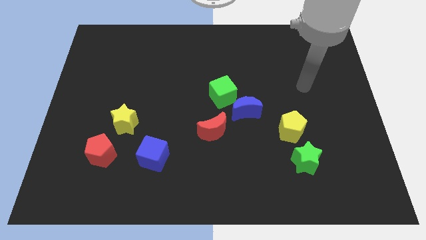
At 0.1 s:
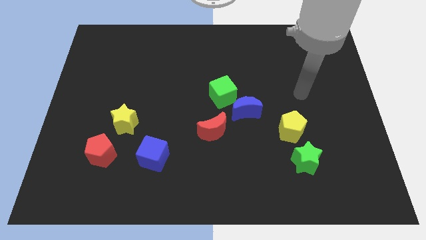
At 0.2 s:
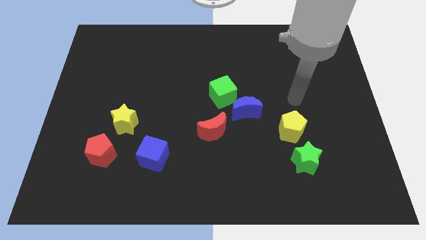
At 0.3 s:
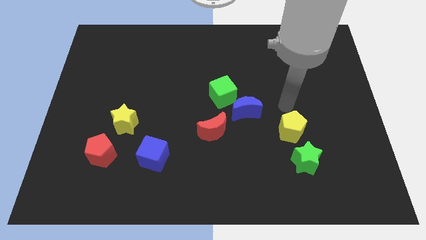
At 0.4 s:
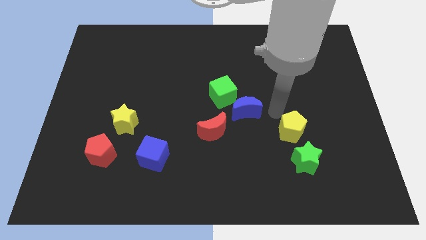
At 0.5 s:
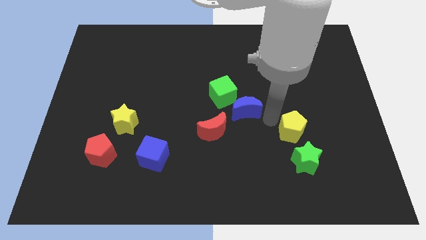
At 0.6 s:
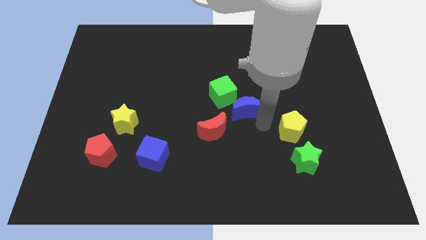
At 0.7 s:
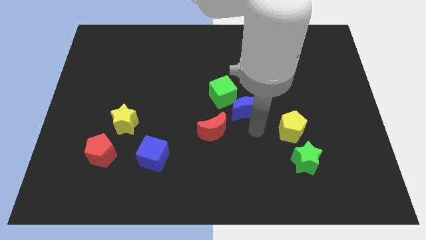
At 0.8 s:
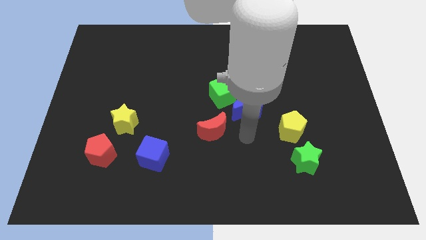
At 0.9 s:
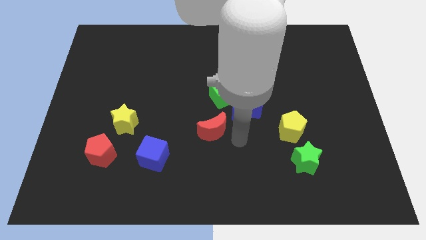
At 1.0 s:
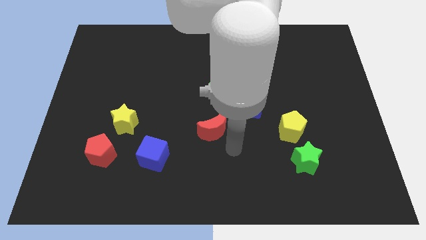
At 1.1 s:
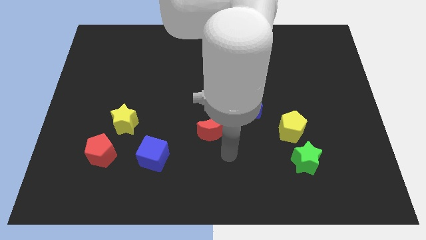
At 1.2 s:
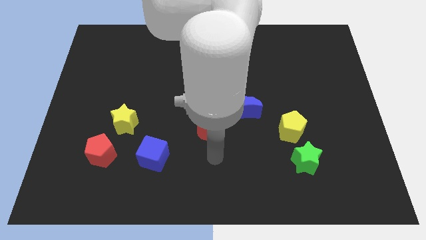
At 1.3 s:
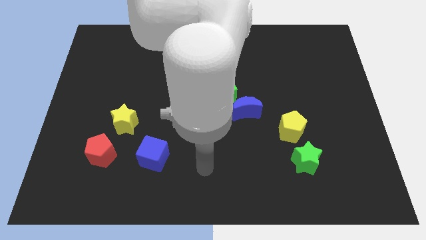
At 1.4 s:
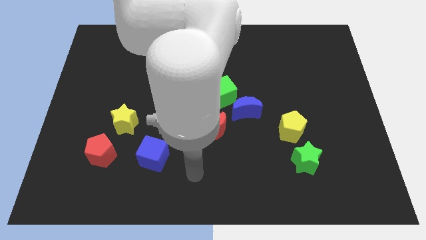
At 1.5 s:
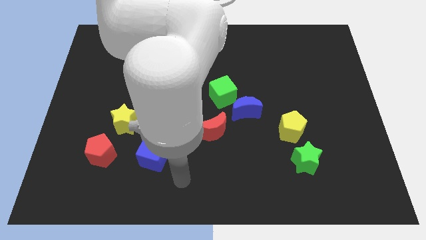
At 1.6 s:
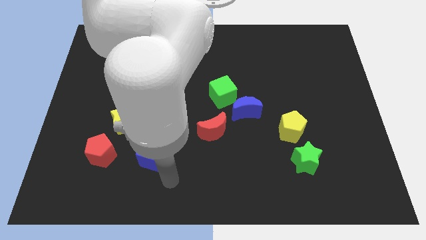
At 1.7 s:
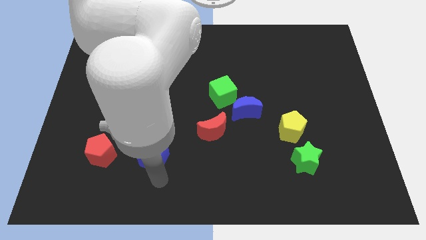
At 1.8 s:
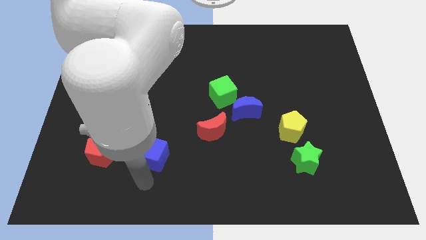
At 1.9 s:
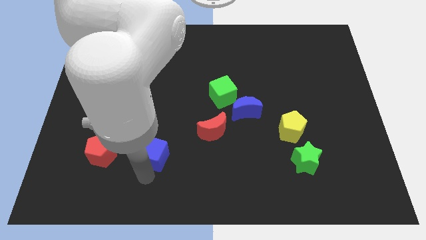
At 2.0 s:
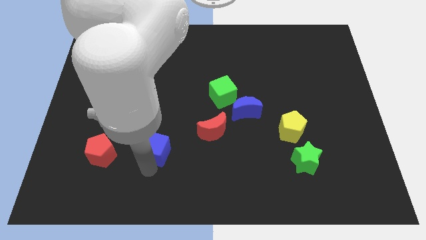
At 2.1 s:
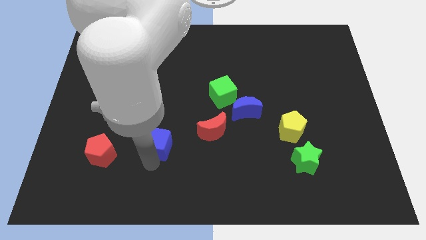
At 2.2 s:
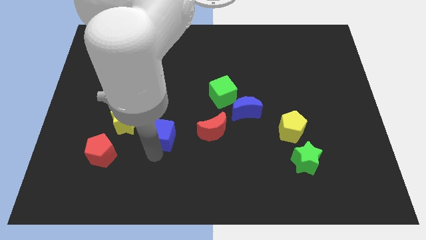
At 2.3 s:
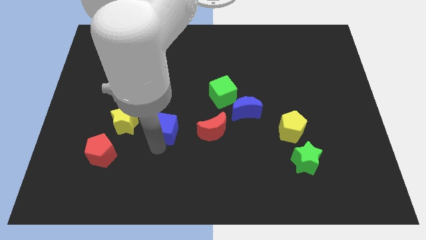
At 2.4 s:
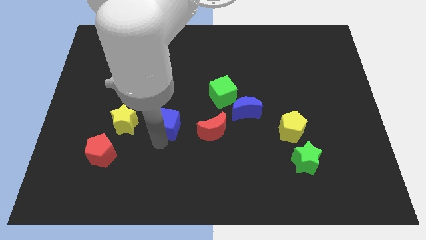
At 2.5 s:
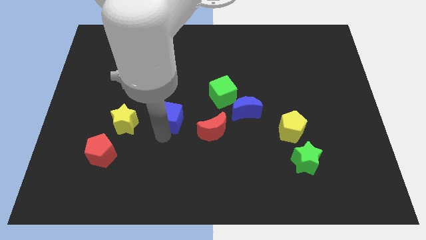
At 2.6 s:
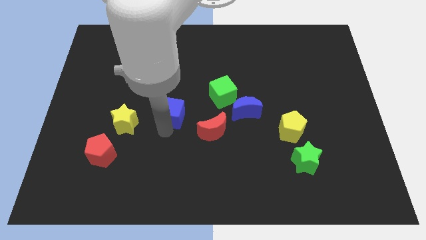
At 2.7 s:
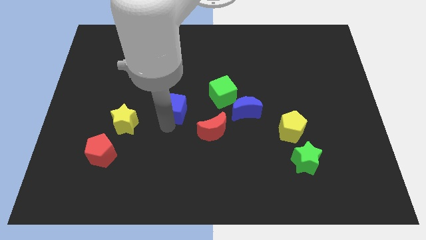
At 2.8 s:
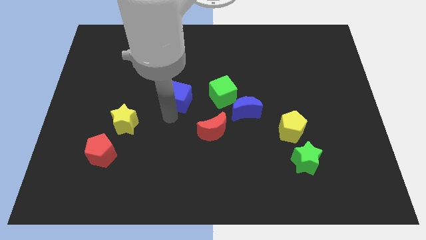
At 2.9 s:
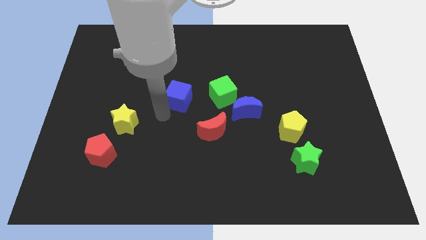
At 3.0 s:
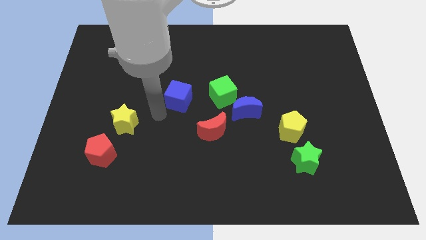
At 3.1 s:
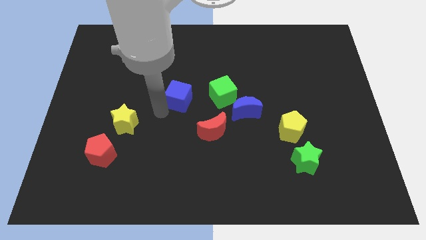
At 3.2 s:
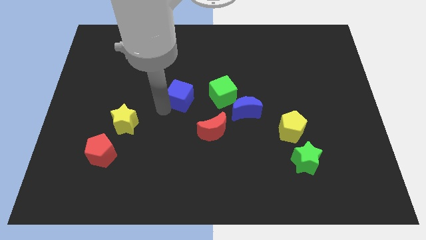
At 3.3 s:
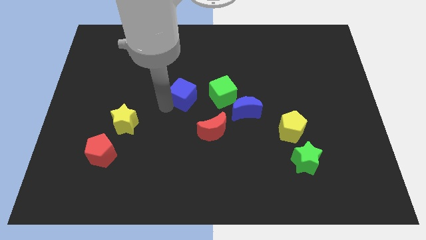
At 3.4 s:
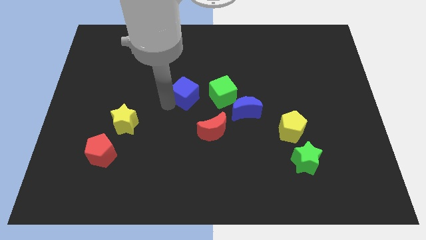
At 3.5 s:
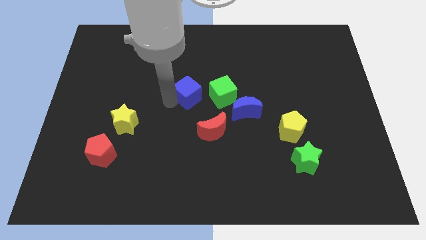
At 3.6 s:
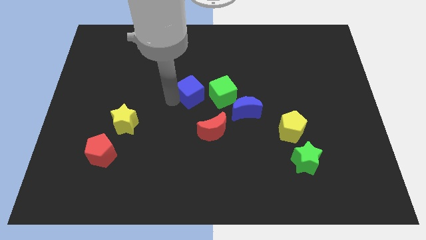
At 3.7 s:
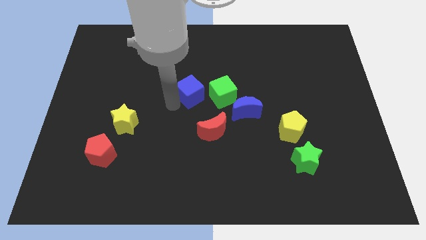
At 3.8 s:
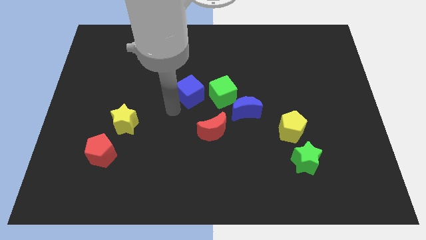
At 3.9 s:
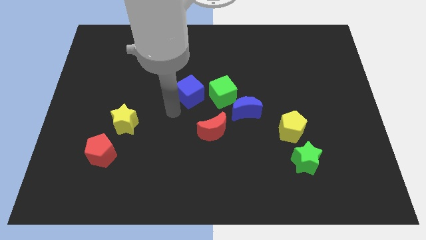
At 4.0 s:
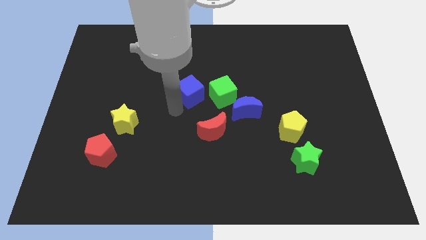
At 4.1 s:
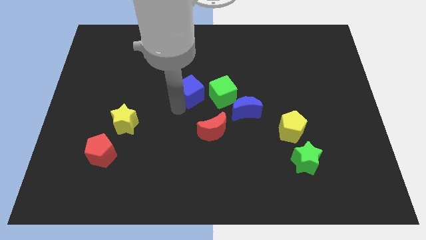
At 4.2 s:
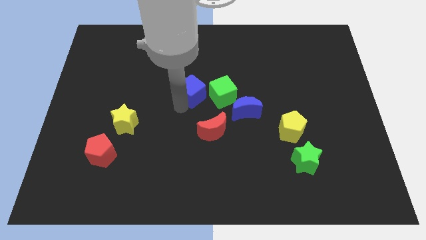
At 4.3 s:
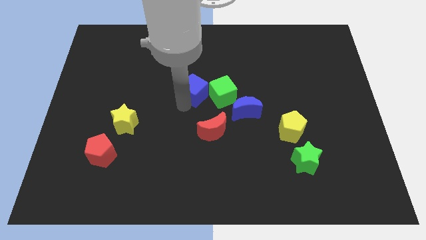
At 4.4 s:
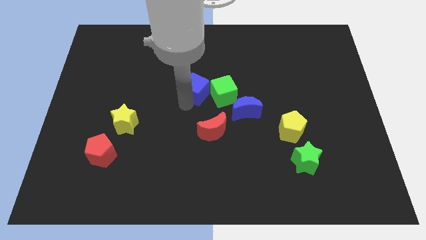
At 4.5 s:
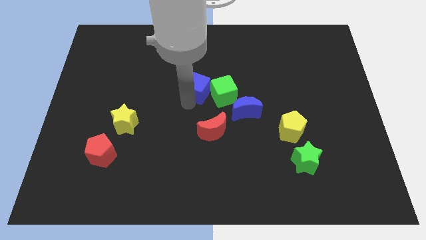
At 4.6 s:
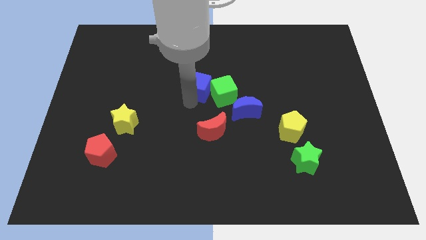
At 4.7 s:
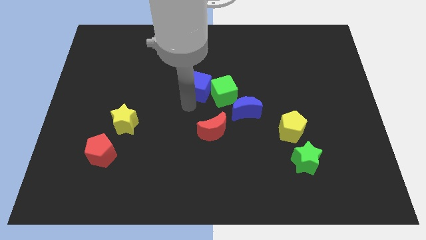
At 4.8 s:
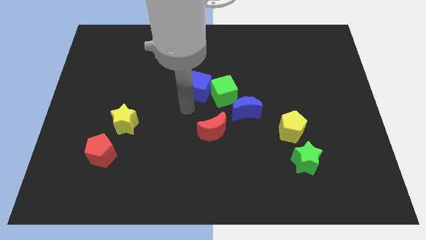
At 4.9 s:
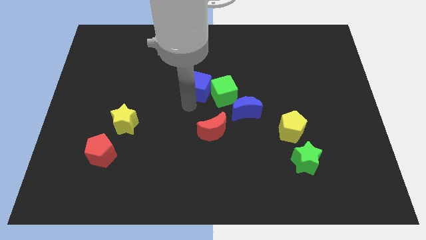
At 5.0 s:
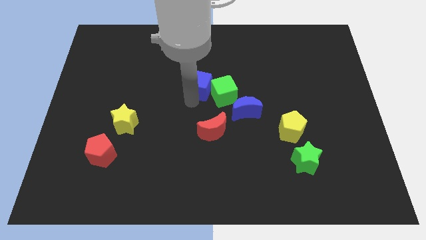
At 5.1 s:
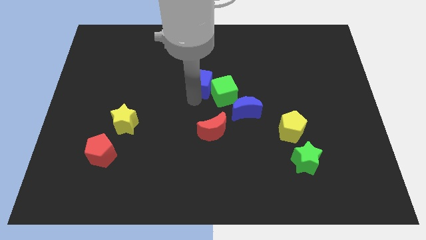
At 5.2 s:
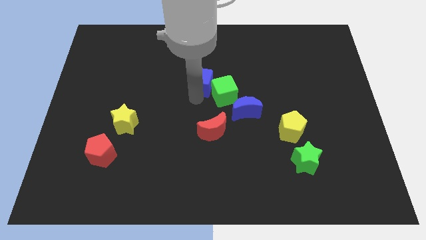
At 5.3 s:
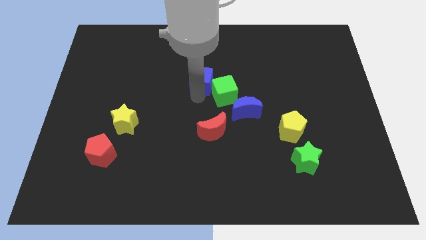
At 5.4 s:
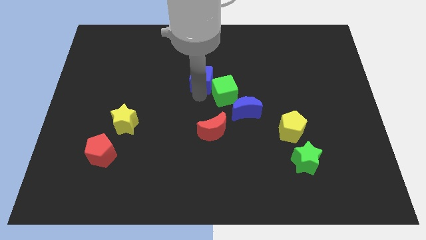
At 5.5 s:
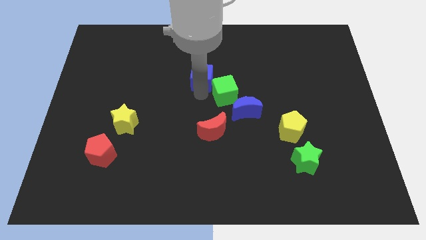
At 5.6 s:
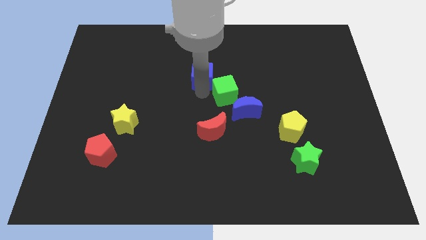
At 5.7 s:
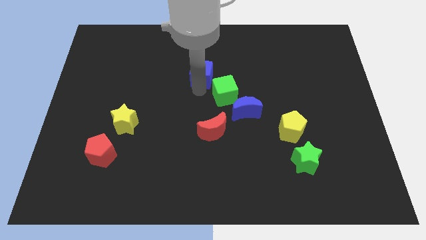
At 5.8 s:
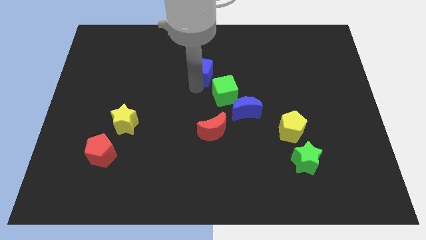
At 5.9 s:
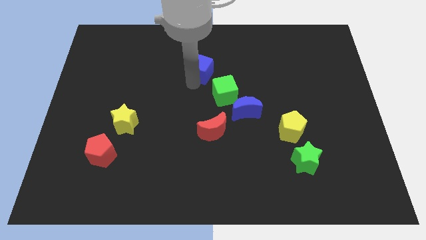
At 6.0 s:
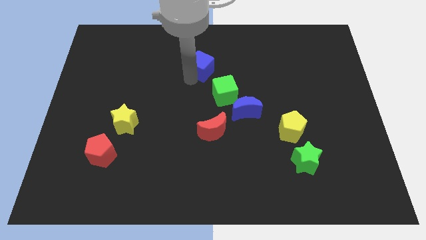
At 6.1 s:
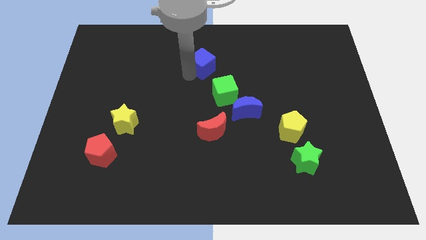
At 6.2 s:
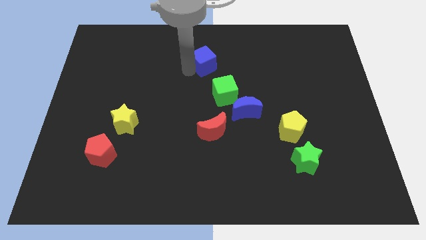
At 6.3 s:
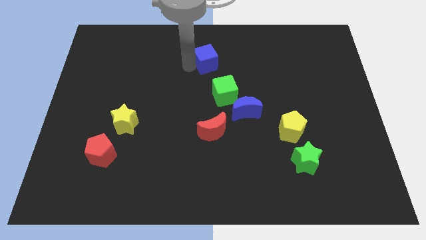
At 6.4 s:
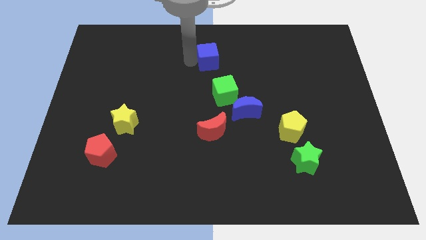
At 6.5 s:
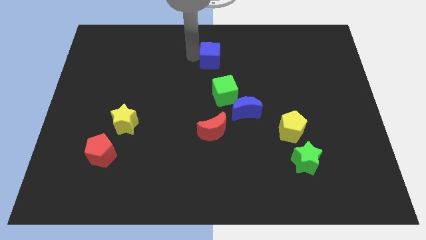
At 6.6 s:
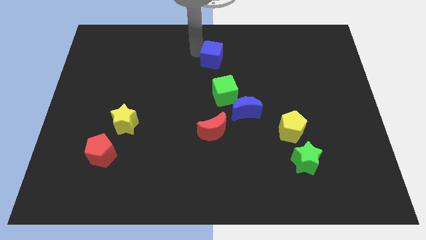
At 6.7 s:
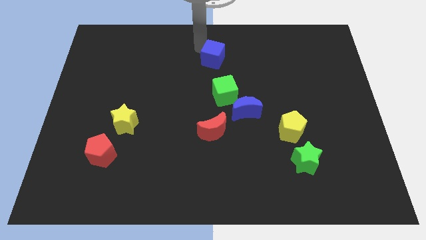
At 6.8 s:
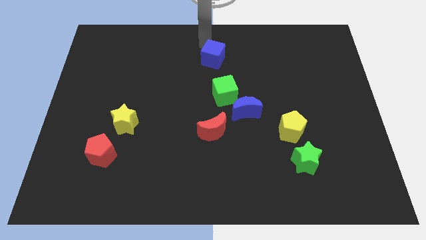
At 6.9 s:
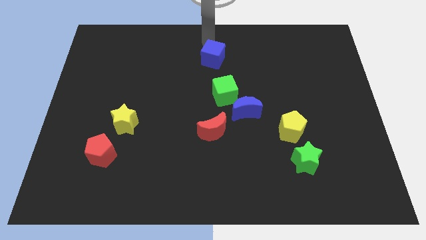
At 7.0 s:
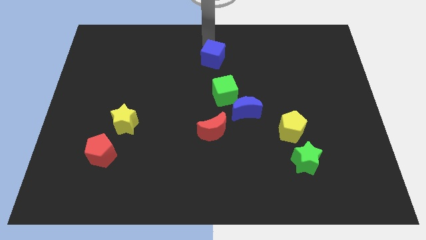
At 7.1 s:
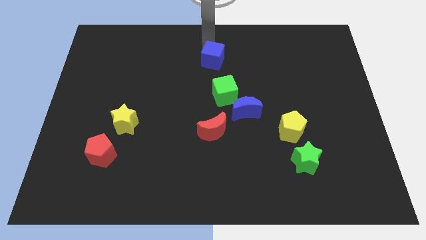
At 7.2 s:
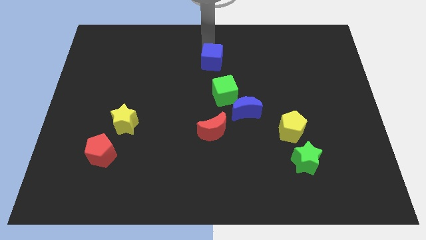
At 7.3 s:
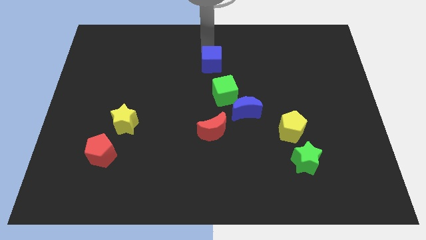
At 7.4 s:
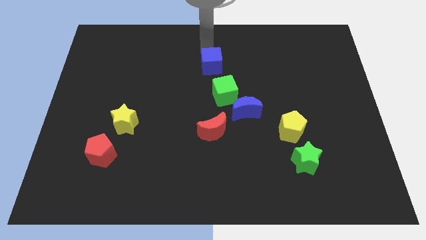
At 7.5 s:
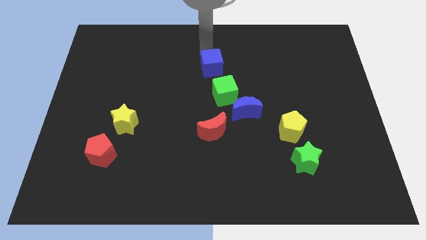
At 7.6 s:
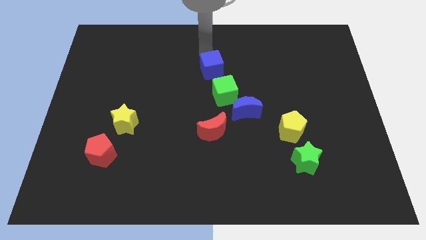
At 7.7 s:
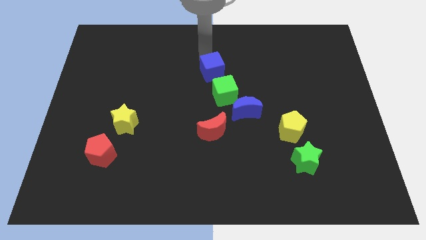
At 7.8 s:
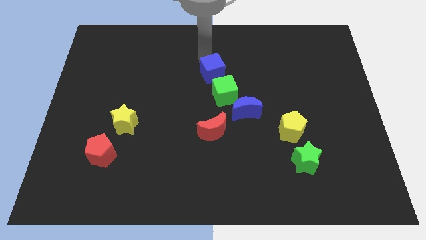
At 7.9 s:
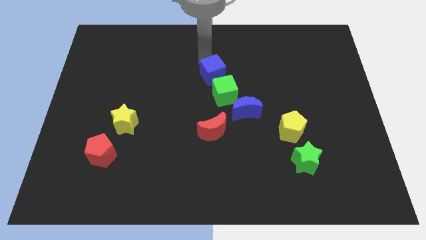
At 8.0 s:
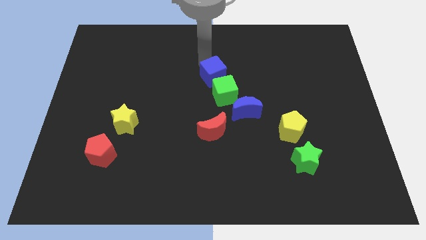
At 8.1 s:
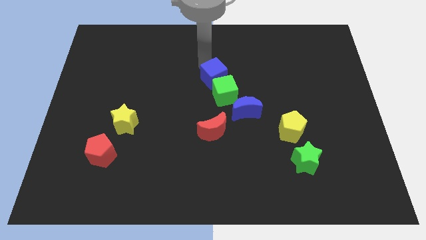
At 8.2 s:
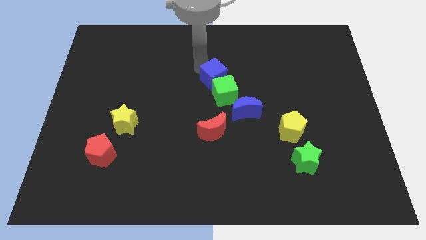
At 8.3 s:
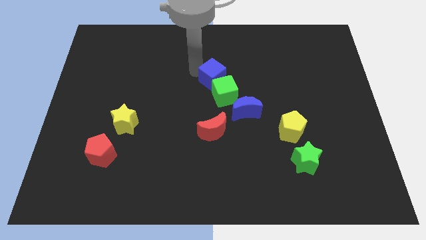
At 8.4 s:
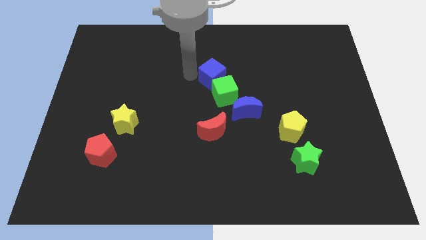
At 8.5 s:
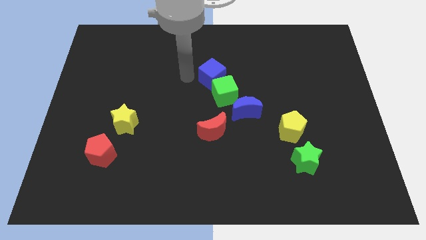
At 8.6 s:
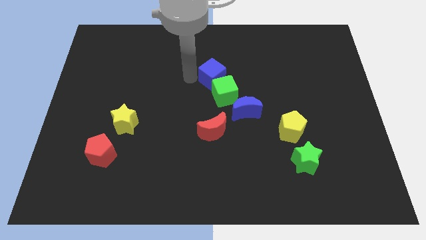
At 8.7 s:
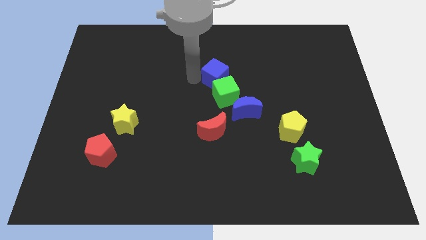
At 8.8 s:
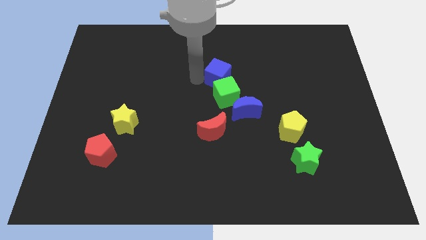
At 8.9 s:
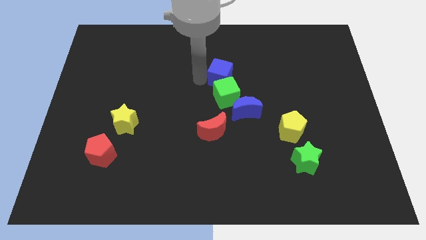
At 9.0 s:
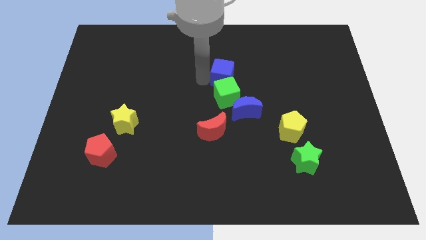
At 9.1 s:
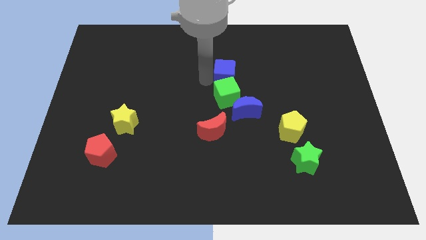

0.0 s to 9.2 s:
put the blue cube above the blue moon
